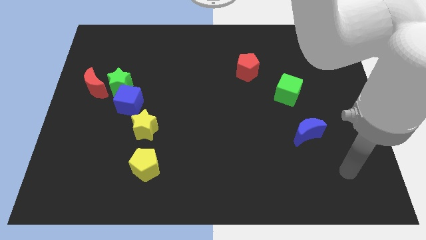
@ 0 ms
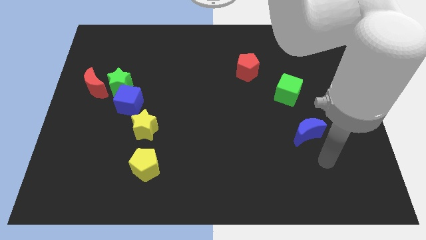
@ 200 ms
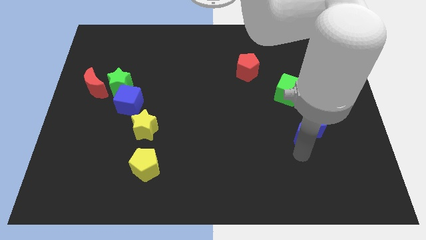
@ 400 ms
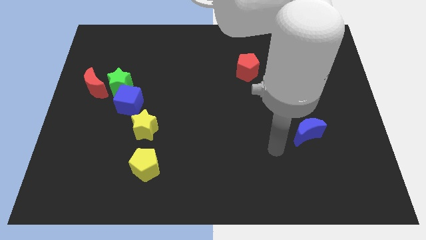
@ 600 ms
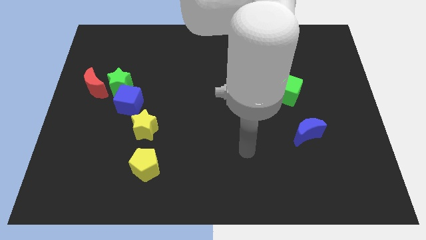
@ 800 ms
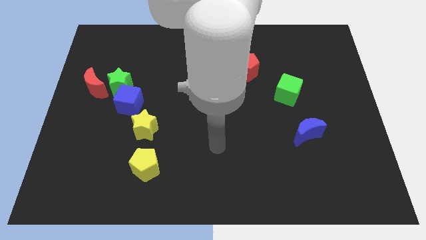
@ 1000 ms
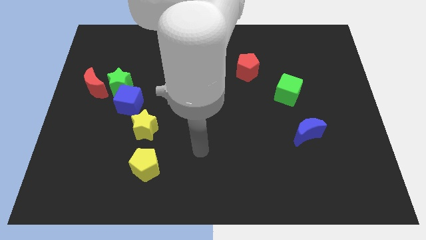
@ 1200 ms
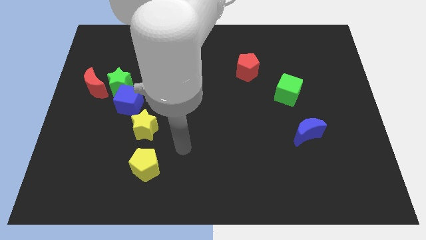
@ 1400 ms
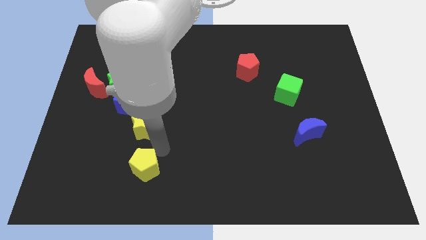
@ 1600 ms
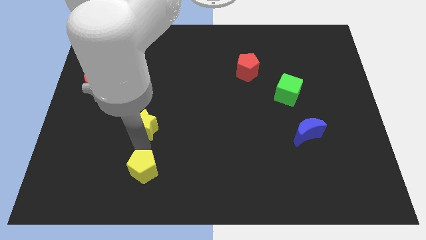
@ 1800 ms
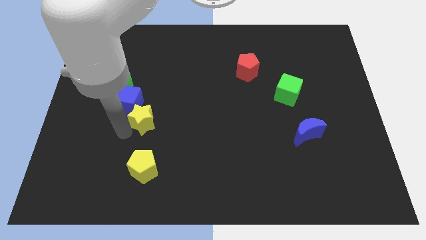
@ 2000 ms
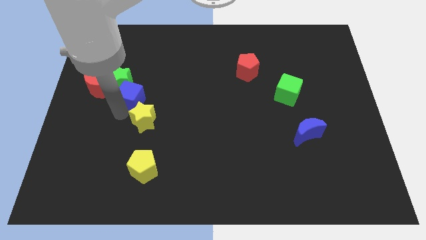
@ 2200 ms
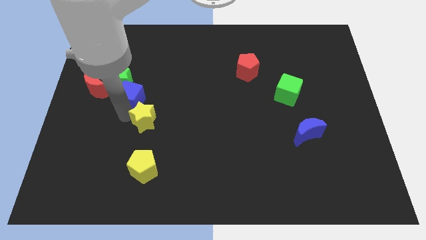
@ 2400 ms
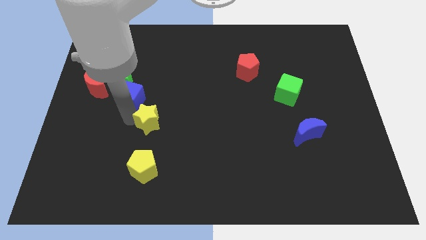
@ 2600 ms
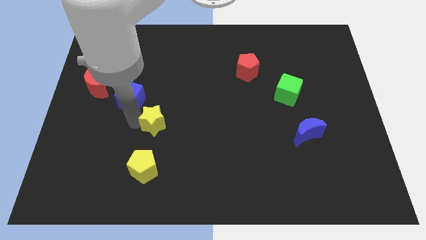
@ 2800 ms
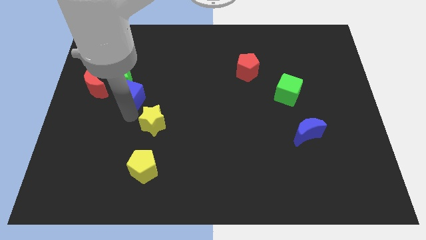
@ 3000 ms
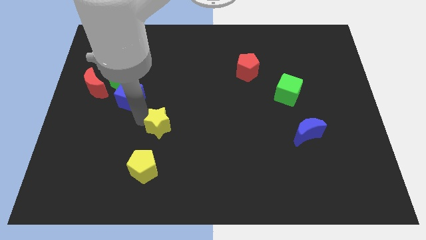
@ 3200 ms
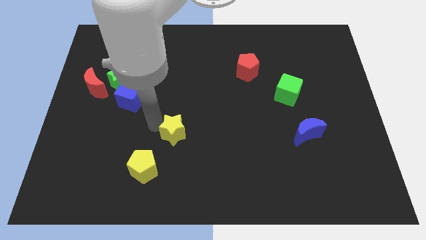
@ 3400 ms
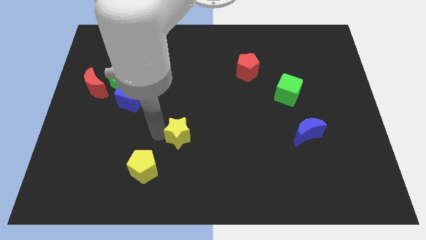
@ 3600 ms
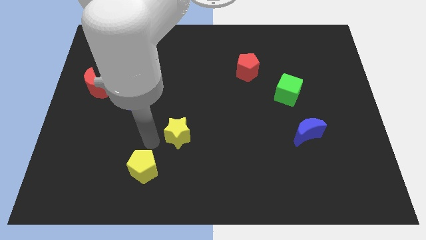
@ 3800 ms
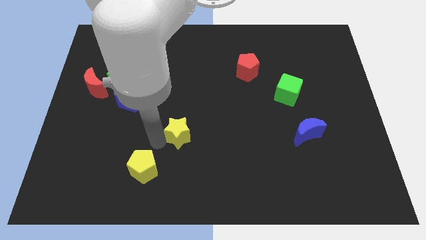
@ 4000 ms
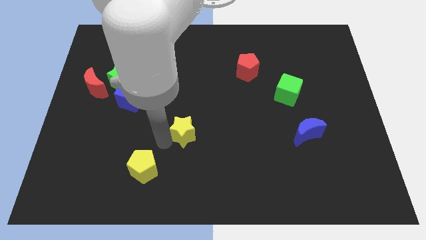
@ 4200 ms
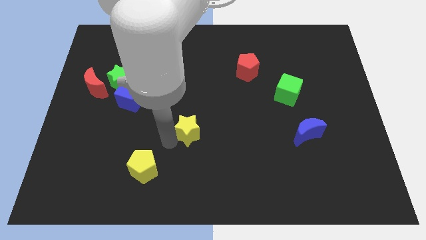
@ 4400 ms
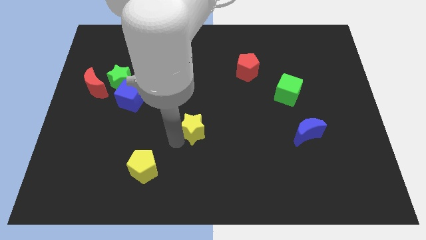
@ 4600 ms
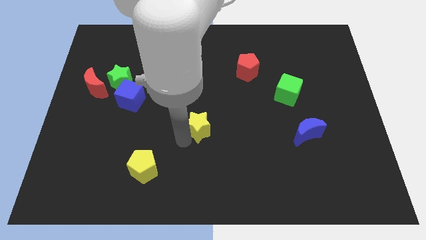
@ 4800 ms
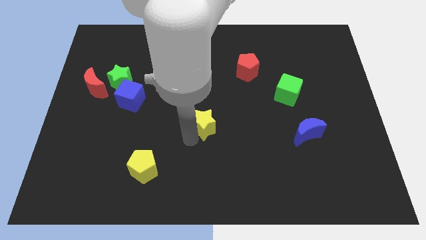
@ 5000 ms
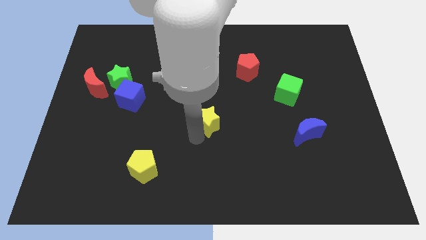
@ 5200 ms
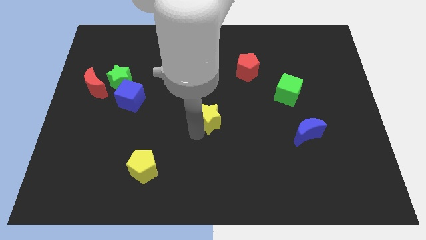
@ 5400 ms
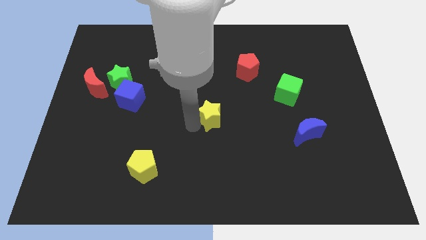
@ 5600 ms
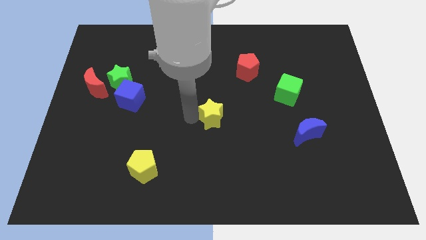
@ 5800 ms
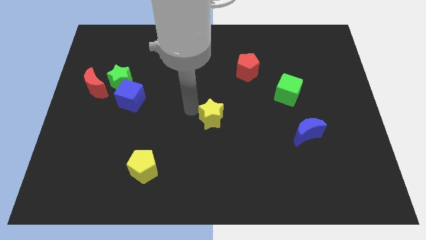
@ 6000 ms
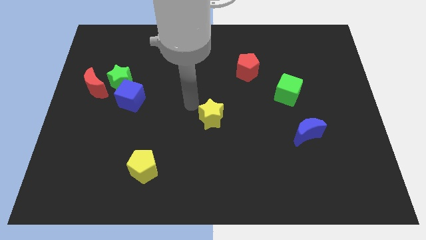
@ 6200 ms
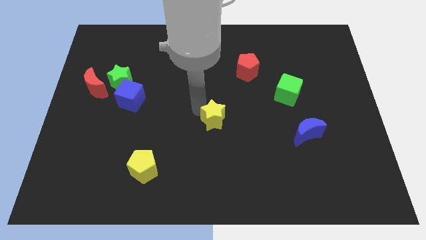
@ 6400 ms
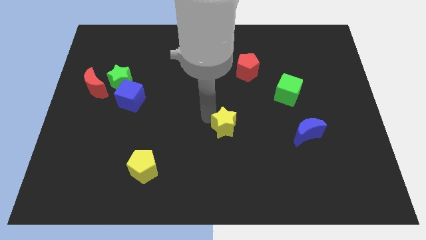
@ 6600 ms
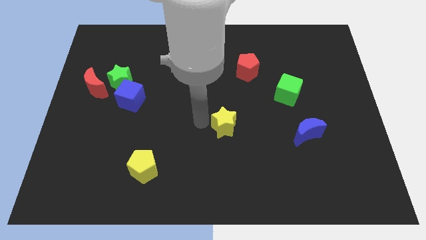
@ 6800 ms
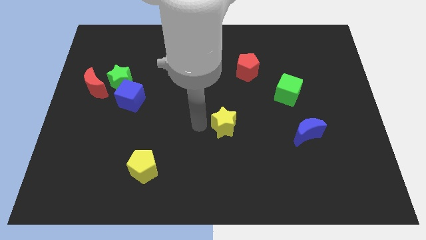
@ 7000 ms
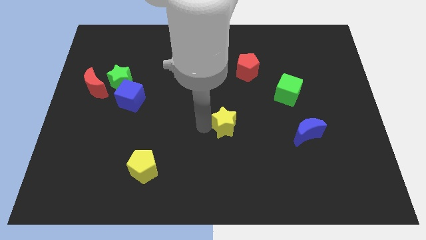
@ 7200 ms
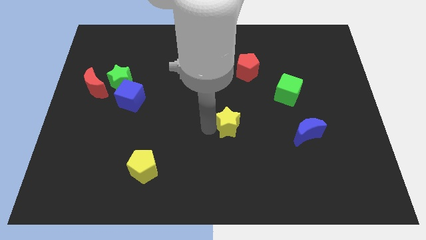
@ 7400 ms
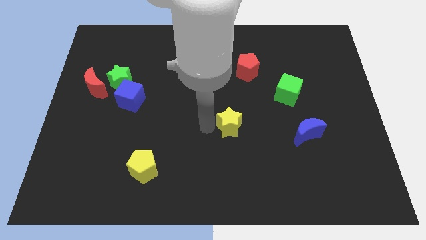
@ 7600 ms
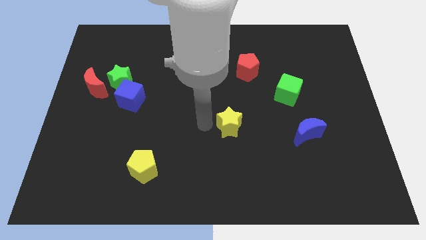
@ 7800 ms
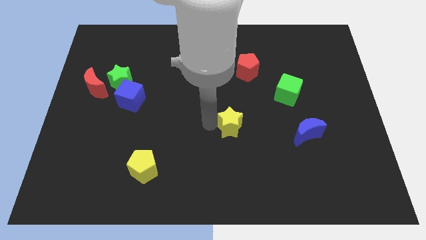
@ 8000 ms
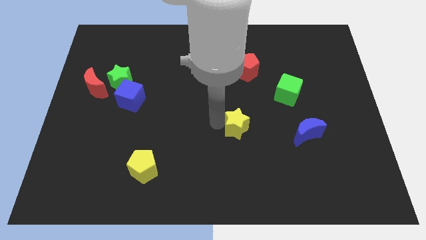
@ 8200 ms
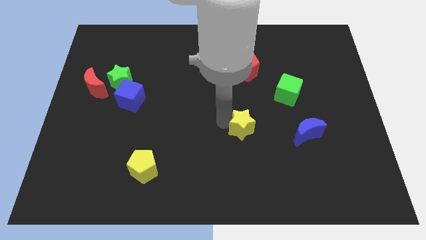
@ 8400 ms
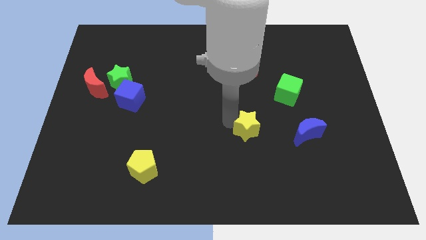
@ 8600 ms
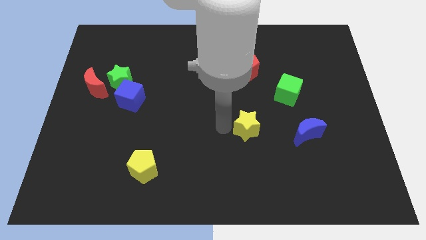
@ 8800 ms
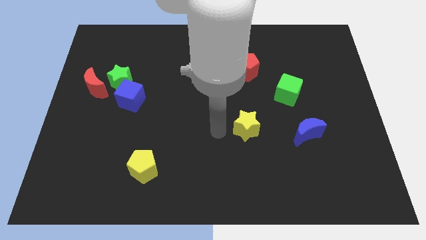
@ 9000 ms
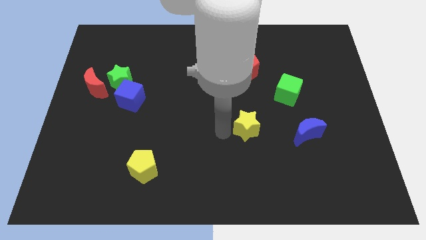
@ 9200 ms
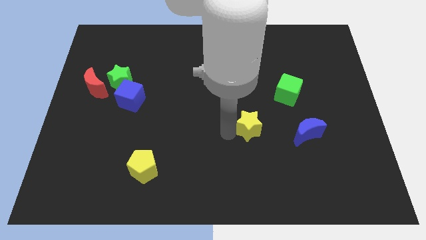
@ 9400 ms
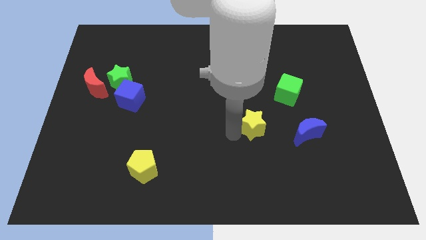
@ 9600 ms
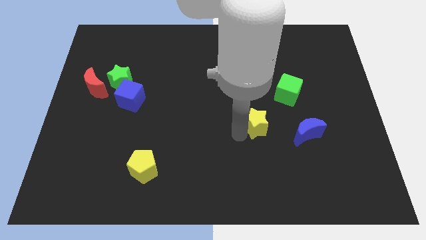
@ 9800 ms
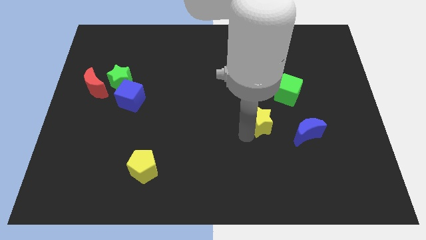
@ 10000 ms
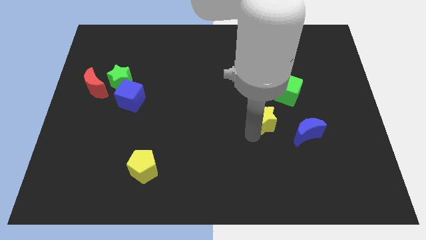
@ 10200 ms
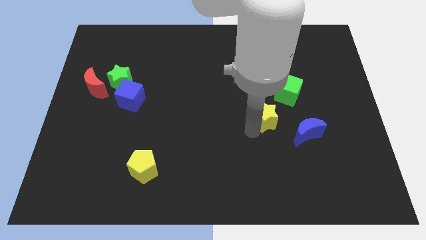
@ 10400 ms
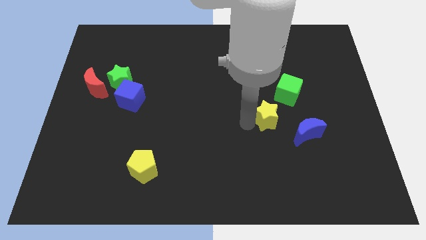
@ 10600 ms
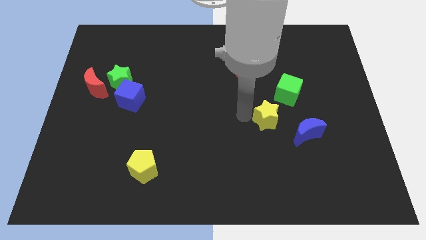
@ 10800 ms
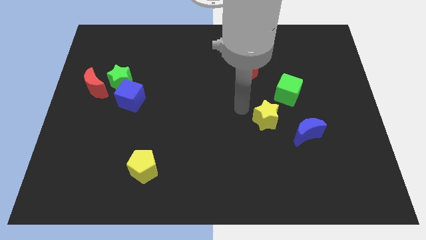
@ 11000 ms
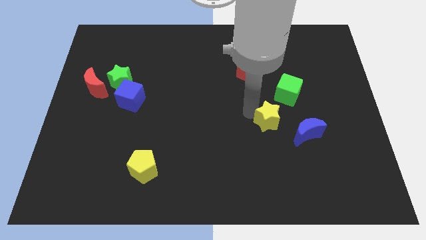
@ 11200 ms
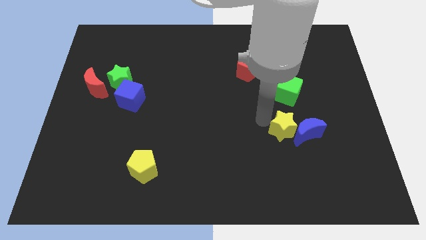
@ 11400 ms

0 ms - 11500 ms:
put the yellow star to the blue moon

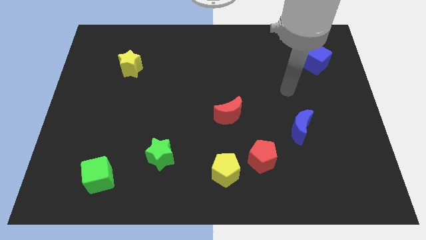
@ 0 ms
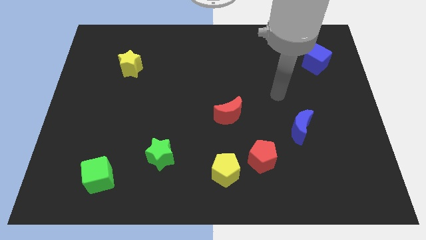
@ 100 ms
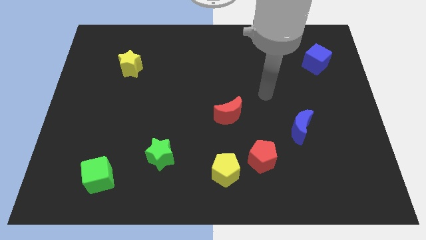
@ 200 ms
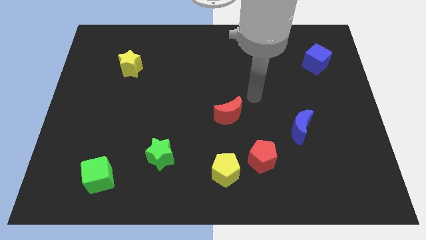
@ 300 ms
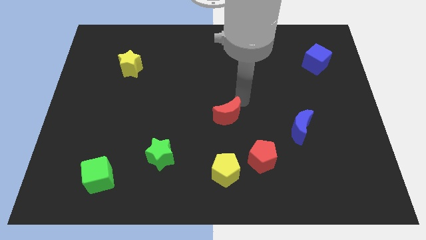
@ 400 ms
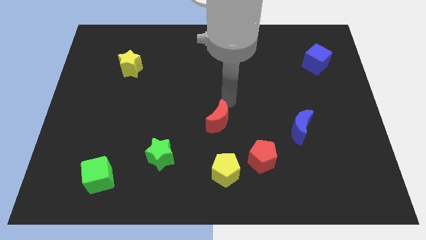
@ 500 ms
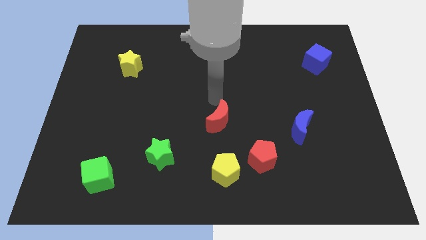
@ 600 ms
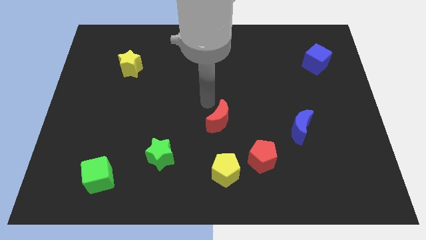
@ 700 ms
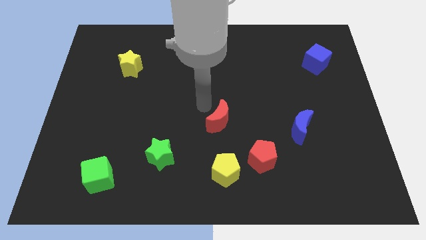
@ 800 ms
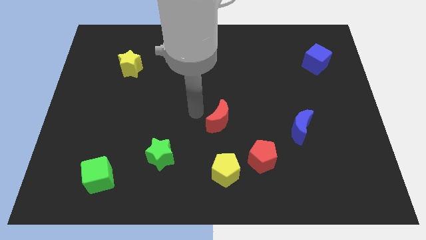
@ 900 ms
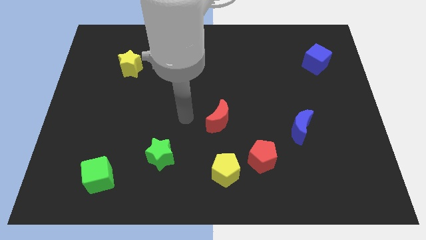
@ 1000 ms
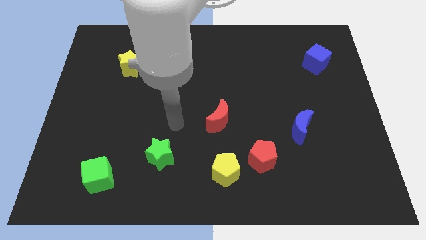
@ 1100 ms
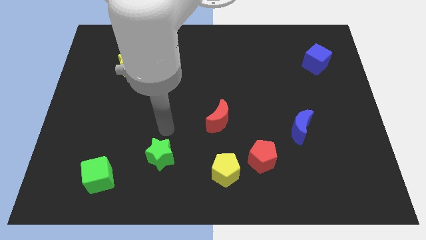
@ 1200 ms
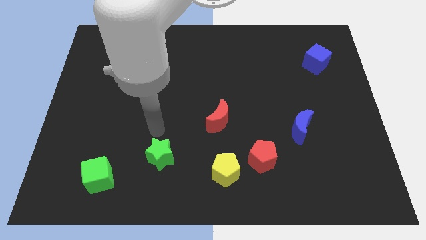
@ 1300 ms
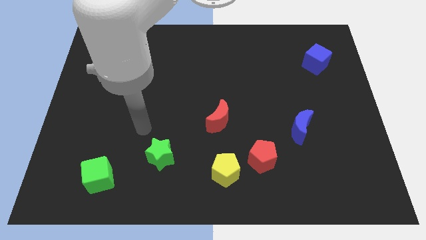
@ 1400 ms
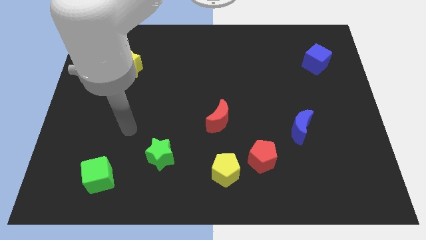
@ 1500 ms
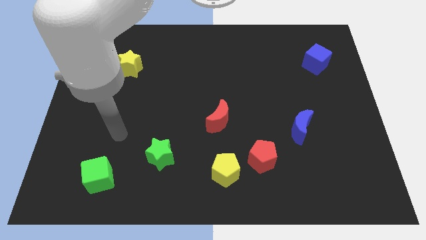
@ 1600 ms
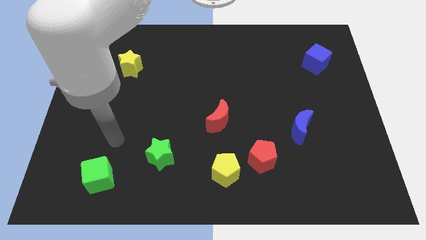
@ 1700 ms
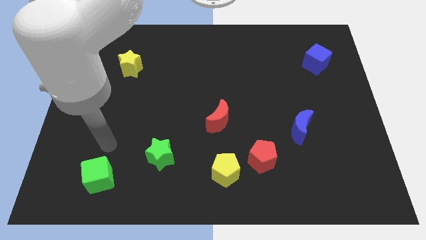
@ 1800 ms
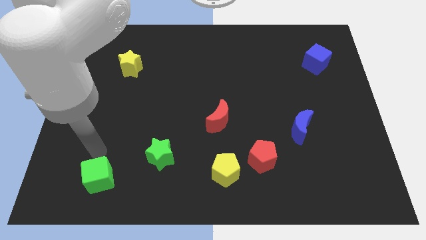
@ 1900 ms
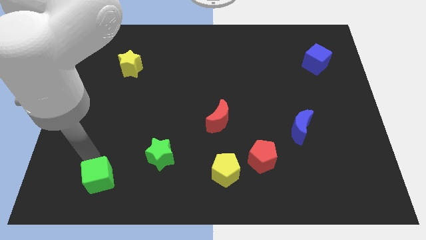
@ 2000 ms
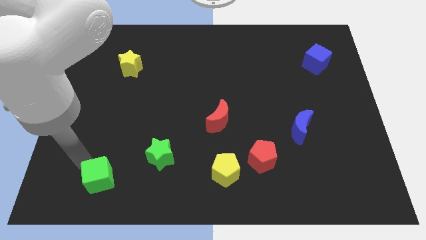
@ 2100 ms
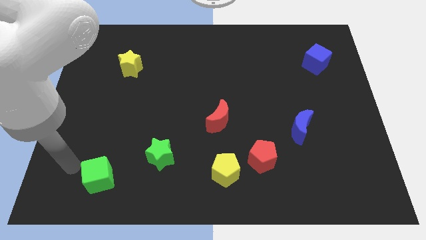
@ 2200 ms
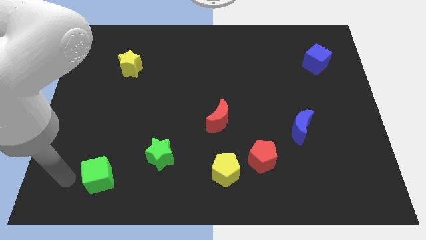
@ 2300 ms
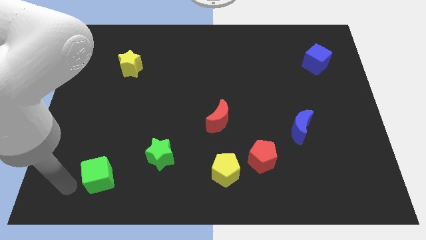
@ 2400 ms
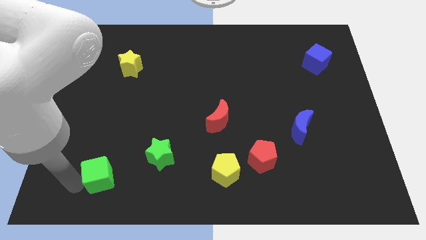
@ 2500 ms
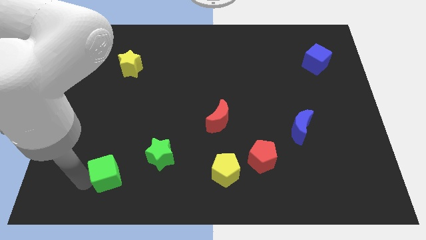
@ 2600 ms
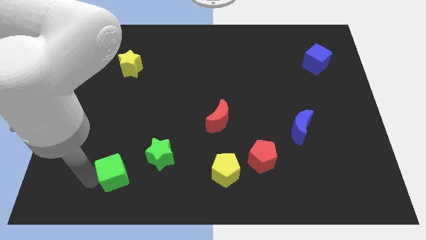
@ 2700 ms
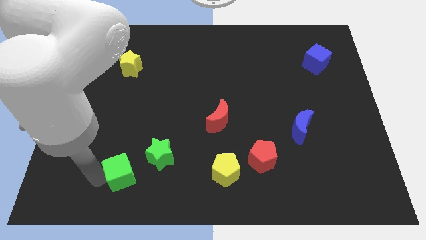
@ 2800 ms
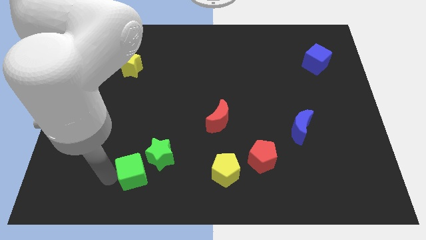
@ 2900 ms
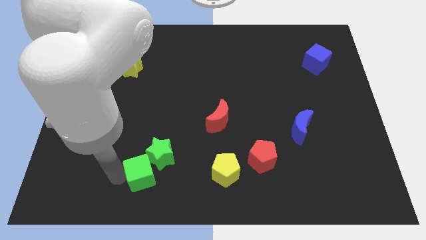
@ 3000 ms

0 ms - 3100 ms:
move the green cube to the green star
